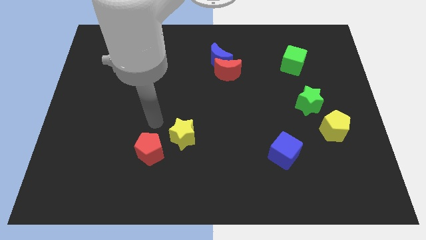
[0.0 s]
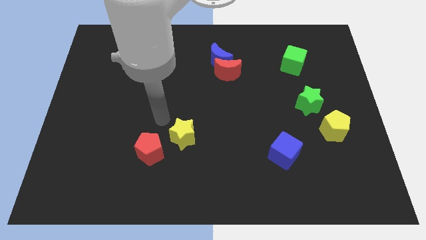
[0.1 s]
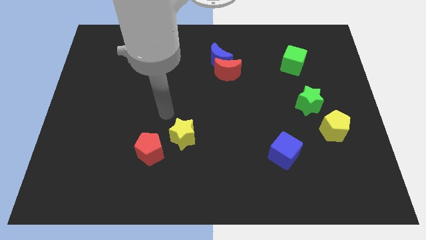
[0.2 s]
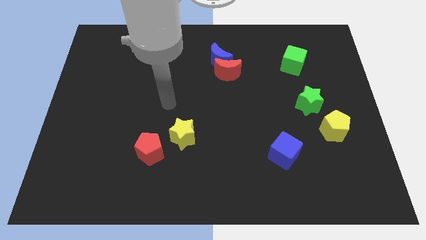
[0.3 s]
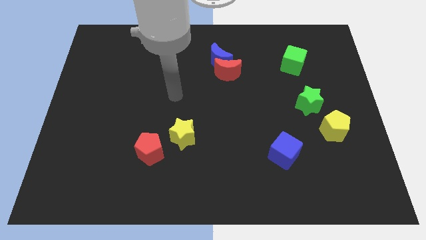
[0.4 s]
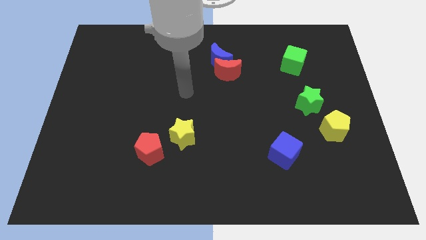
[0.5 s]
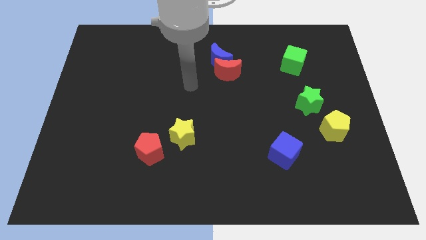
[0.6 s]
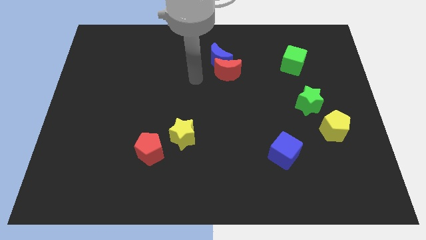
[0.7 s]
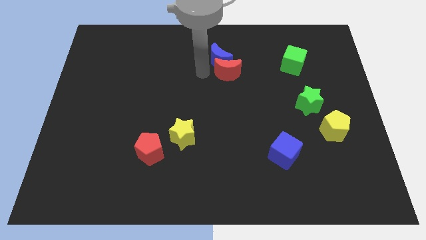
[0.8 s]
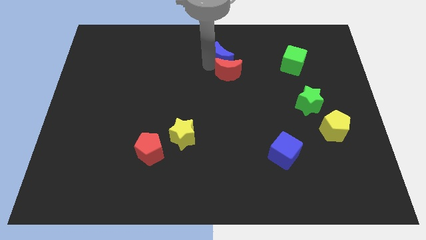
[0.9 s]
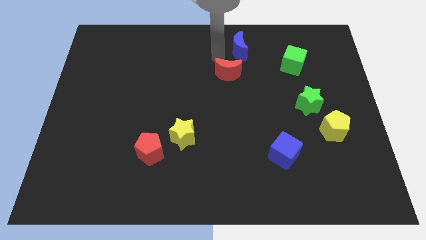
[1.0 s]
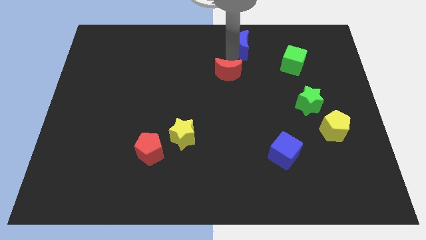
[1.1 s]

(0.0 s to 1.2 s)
separate the red moon from the blue moon

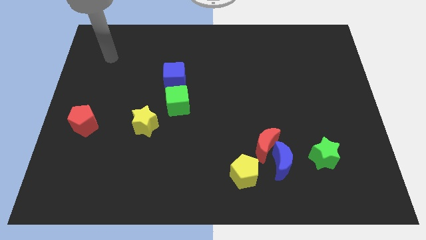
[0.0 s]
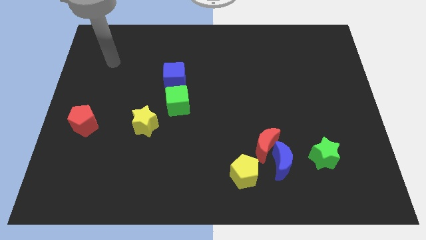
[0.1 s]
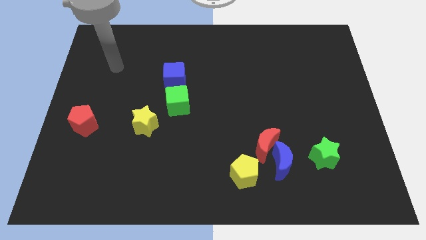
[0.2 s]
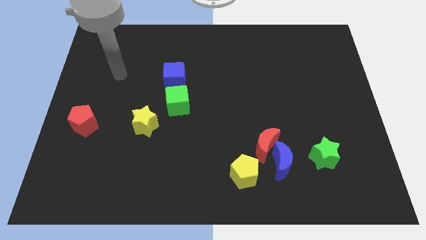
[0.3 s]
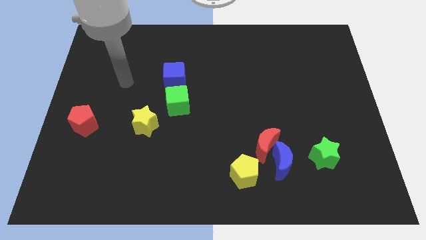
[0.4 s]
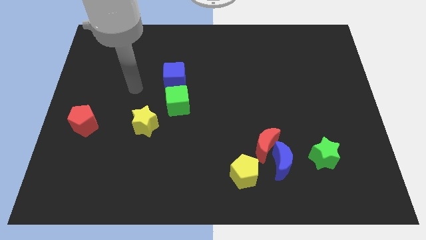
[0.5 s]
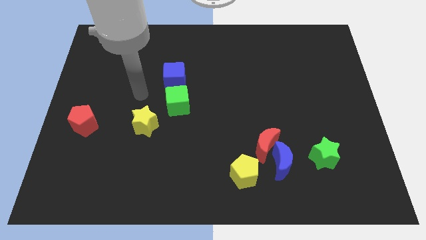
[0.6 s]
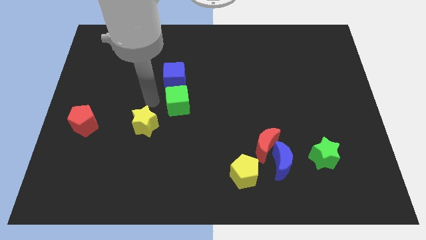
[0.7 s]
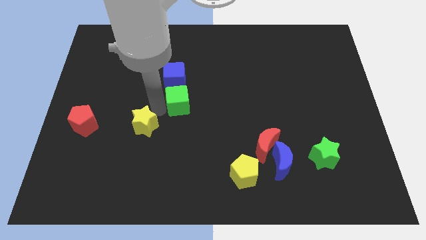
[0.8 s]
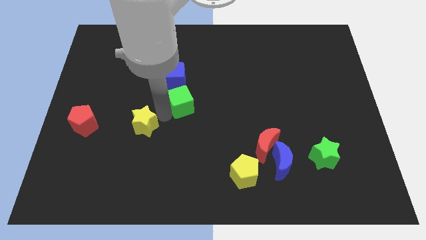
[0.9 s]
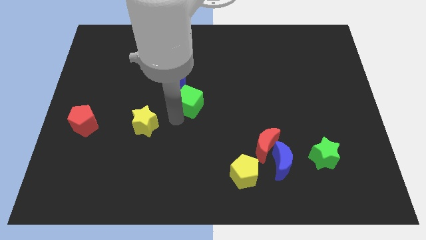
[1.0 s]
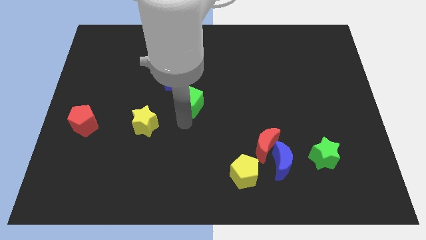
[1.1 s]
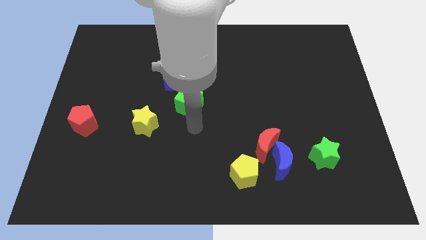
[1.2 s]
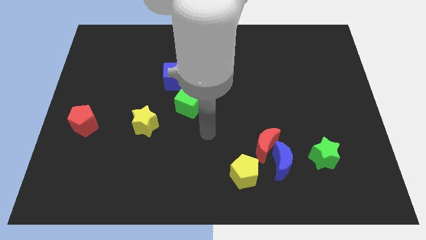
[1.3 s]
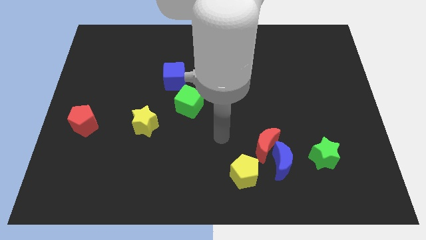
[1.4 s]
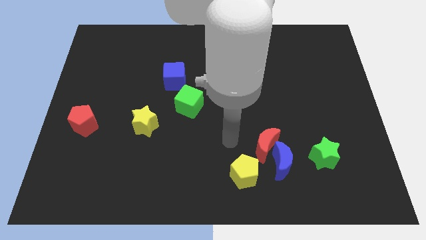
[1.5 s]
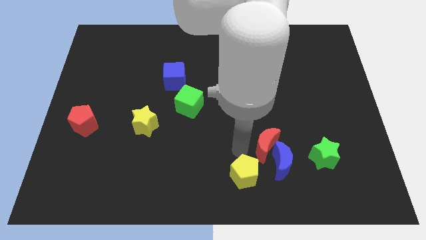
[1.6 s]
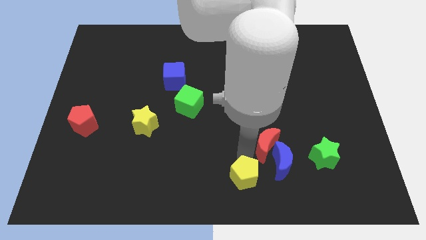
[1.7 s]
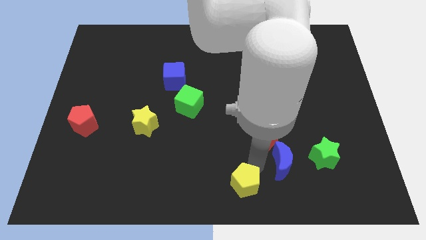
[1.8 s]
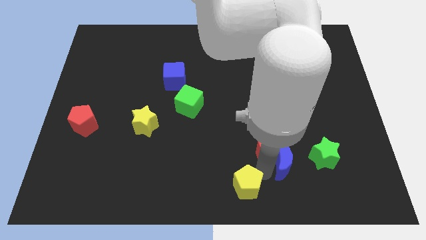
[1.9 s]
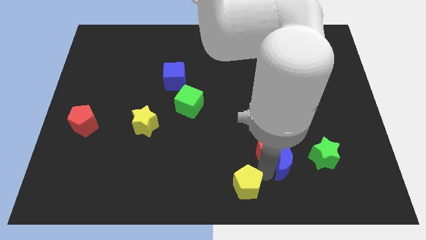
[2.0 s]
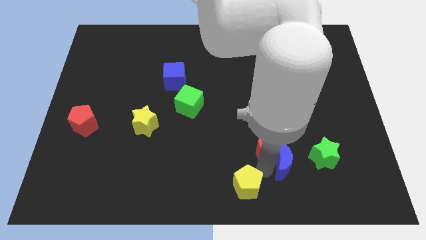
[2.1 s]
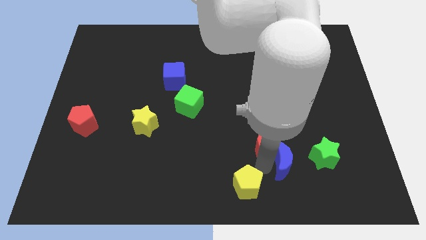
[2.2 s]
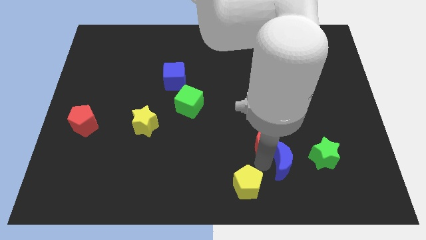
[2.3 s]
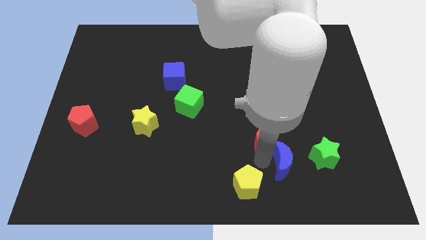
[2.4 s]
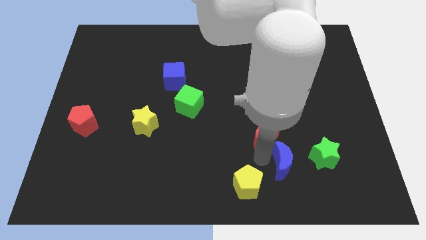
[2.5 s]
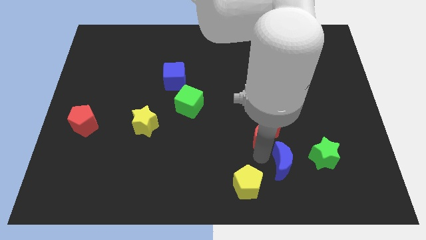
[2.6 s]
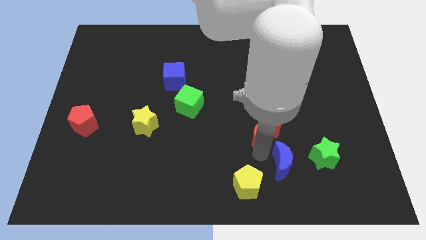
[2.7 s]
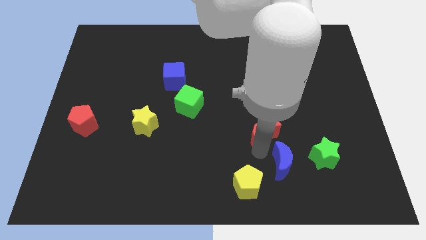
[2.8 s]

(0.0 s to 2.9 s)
move the red moon away from the blue moon and yellow pentagon

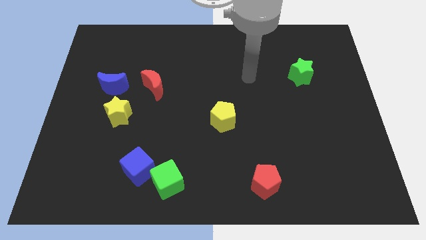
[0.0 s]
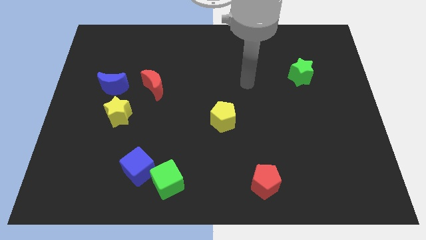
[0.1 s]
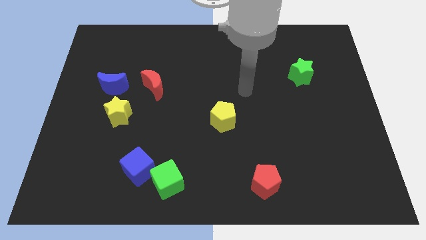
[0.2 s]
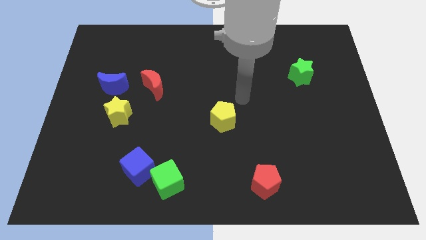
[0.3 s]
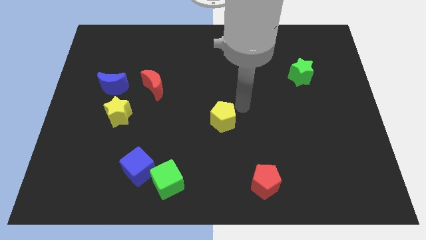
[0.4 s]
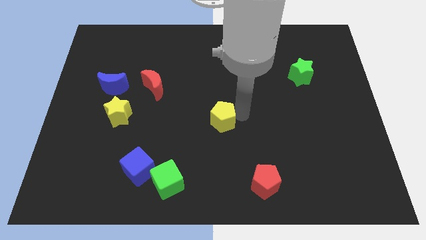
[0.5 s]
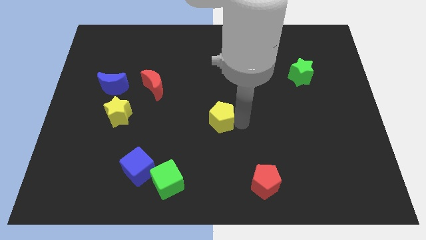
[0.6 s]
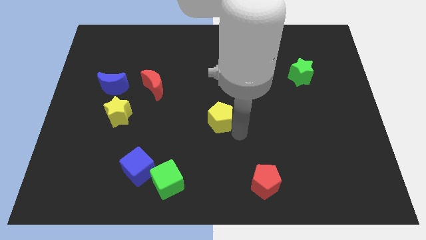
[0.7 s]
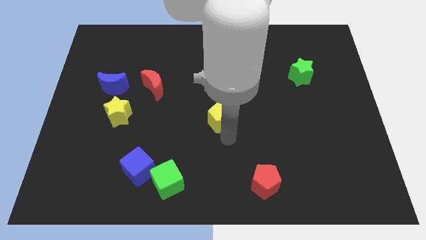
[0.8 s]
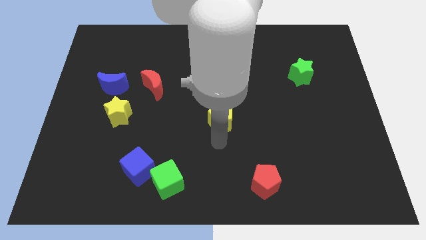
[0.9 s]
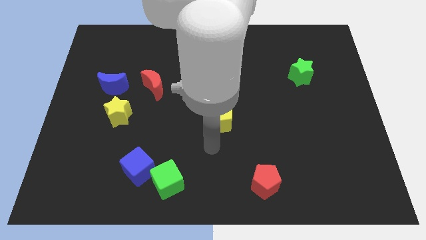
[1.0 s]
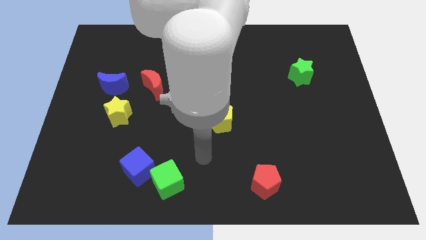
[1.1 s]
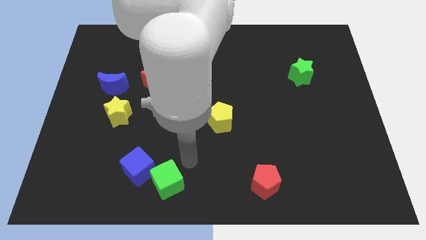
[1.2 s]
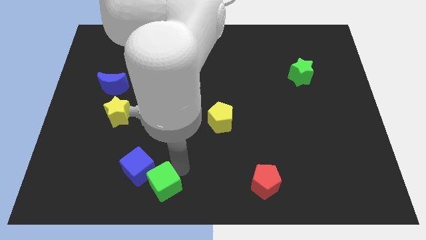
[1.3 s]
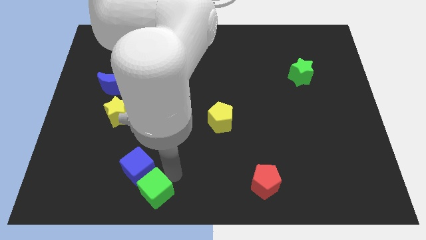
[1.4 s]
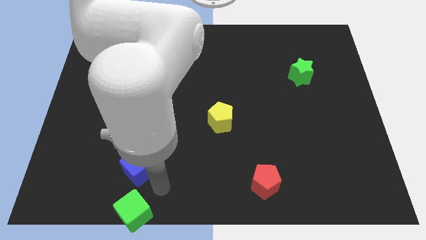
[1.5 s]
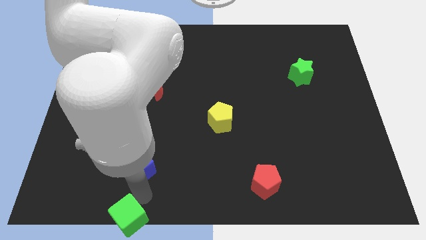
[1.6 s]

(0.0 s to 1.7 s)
separate the blue cube from the green cube

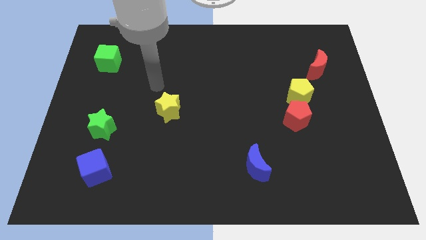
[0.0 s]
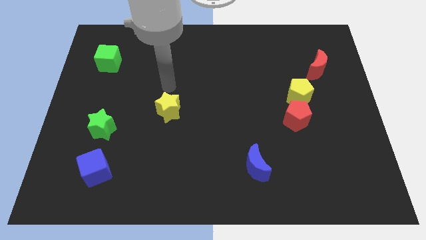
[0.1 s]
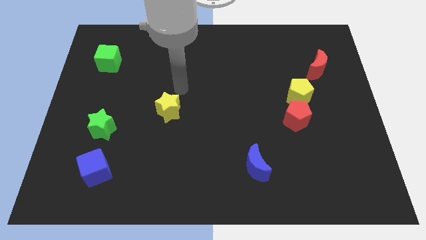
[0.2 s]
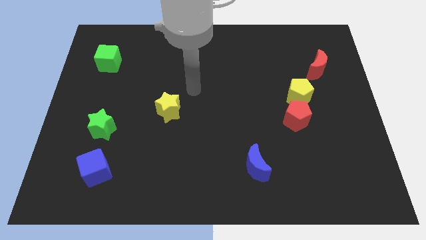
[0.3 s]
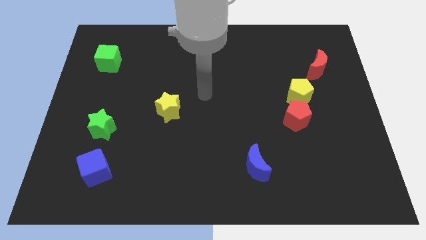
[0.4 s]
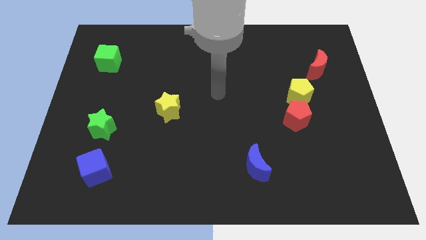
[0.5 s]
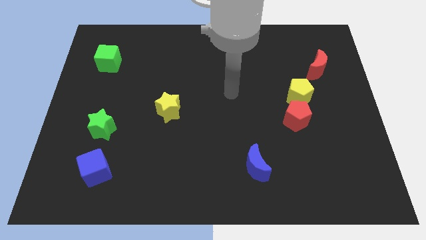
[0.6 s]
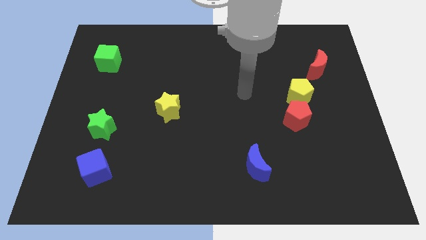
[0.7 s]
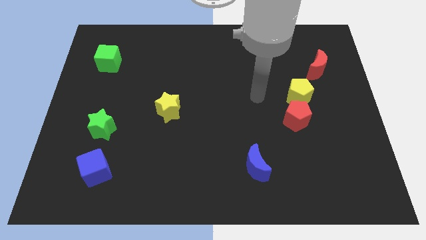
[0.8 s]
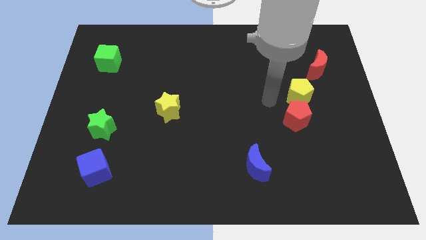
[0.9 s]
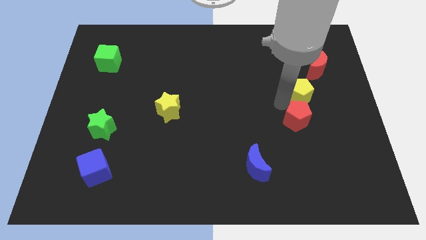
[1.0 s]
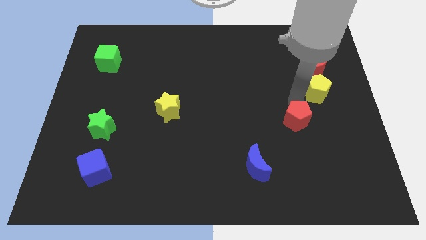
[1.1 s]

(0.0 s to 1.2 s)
separate the red pentagon from the yellow pentagon

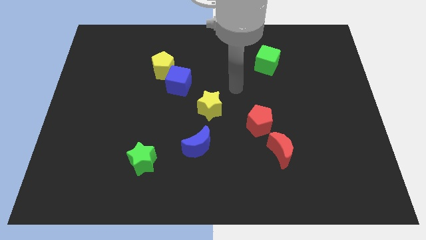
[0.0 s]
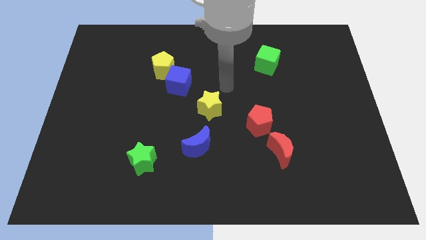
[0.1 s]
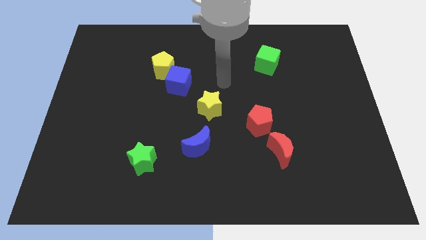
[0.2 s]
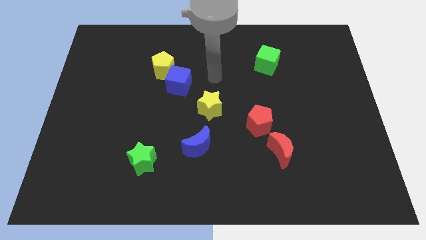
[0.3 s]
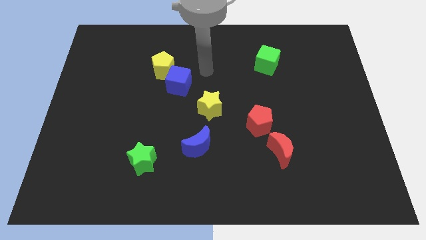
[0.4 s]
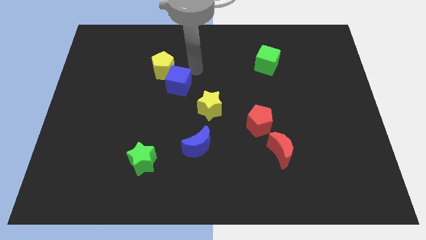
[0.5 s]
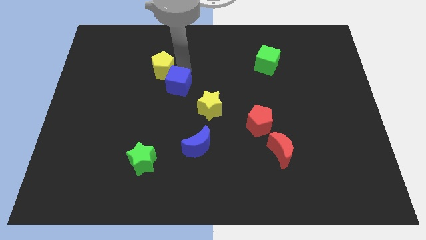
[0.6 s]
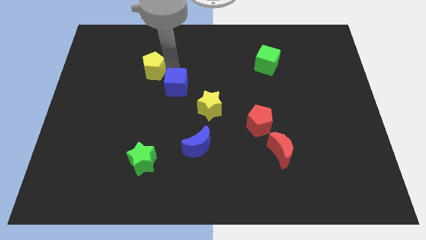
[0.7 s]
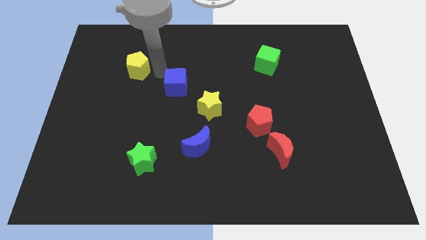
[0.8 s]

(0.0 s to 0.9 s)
move the blue cube away from the yellow pentagon

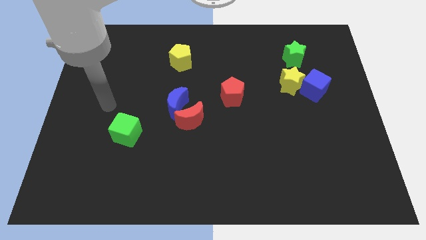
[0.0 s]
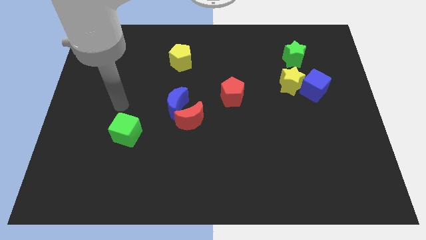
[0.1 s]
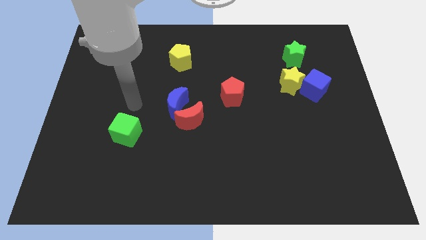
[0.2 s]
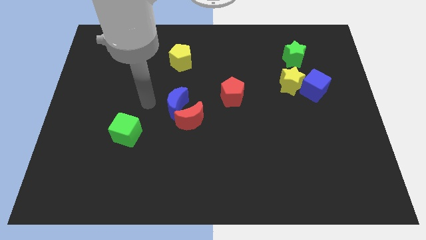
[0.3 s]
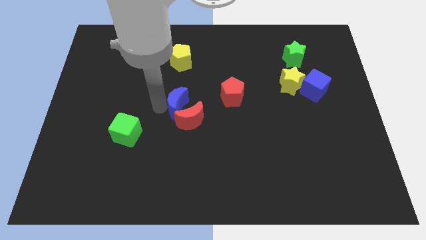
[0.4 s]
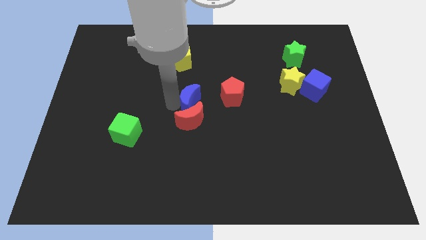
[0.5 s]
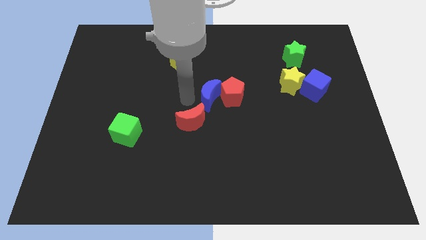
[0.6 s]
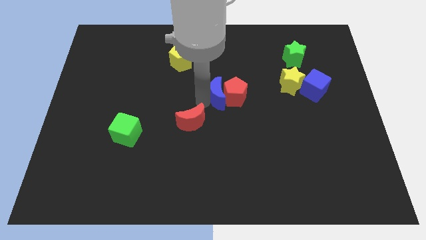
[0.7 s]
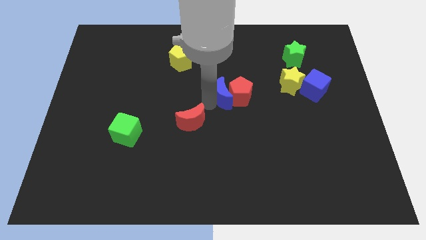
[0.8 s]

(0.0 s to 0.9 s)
move the red moon away from the blue moon

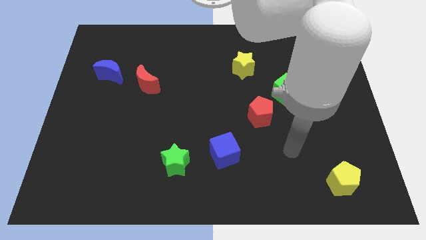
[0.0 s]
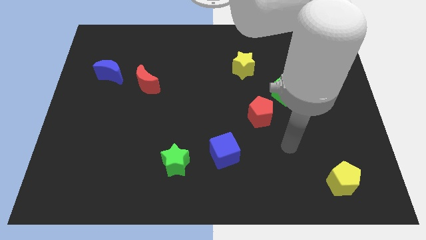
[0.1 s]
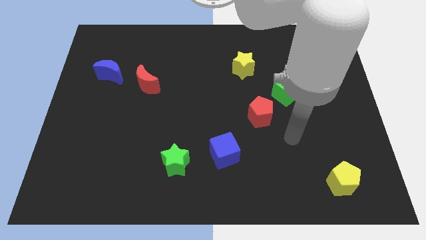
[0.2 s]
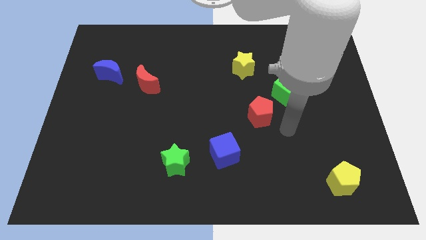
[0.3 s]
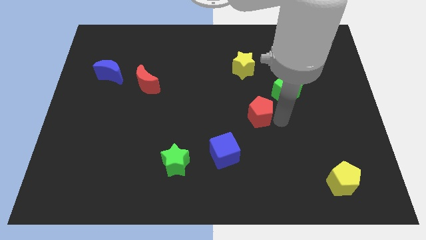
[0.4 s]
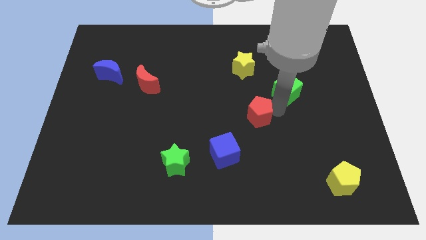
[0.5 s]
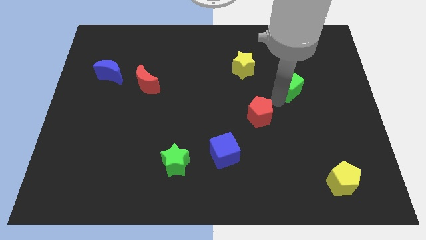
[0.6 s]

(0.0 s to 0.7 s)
pull the red pentagon apart from the green cube
